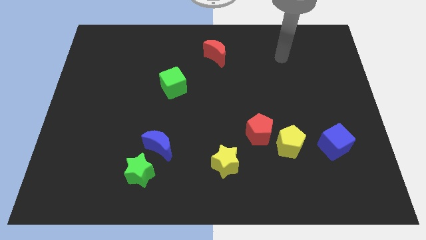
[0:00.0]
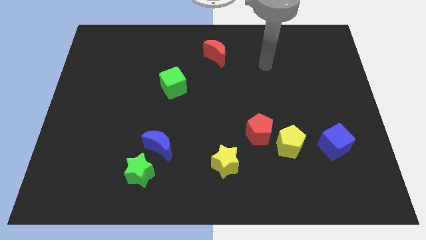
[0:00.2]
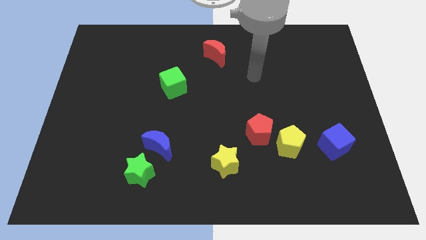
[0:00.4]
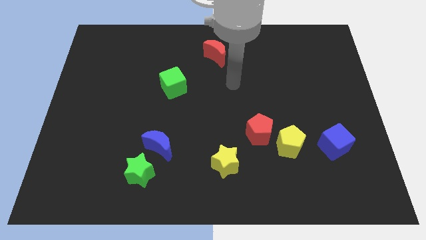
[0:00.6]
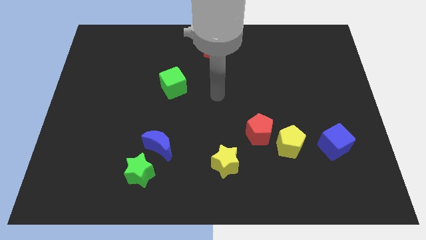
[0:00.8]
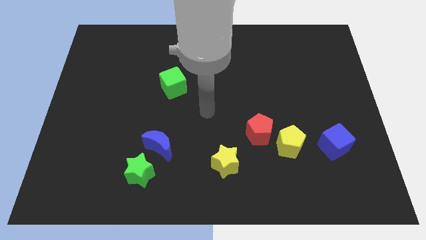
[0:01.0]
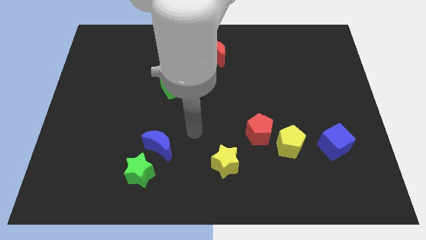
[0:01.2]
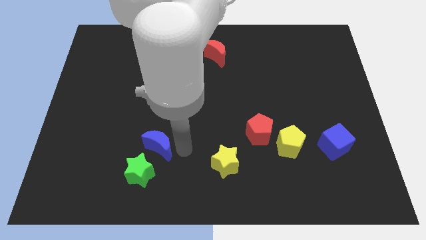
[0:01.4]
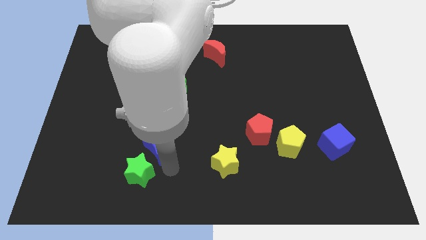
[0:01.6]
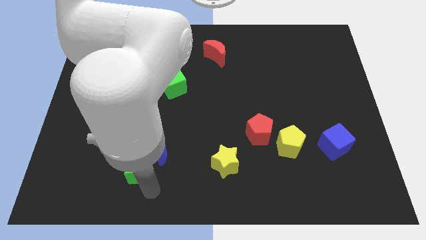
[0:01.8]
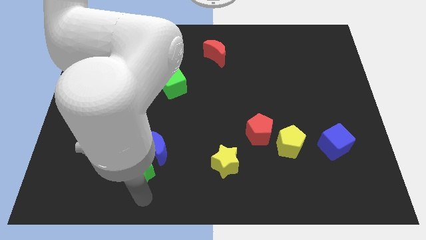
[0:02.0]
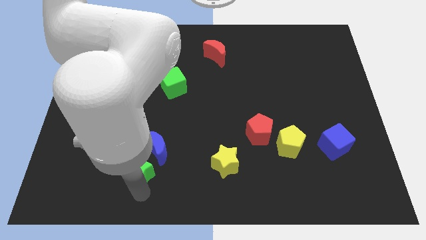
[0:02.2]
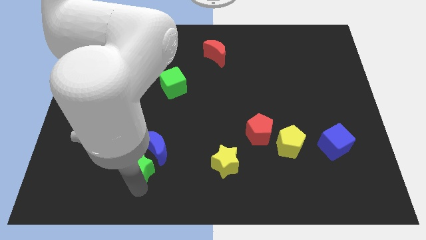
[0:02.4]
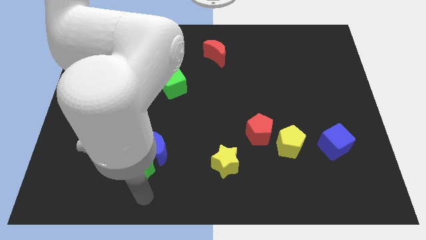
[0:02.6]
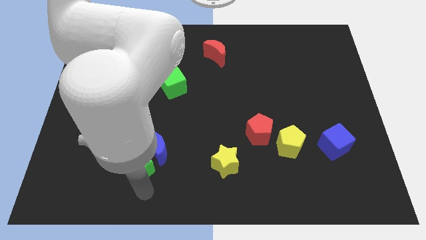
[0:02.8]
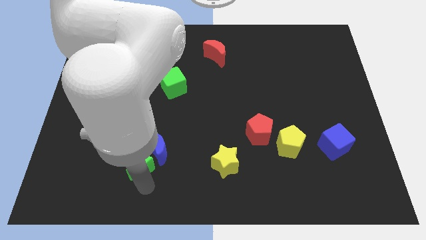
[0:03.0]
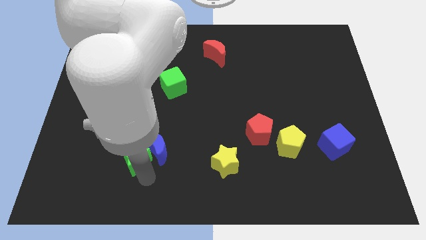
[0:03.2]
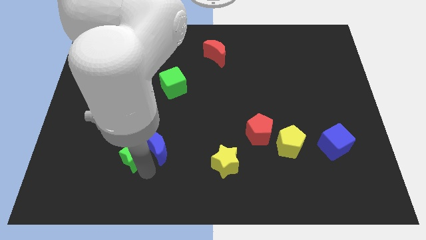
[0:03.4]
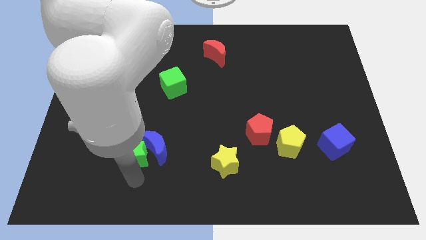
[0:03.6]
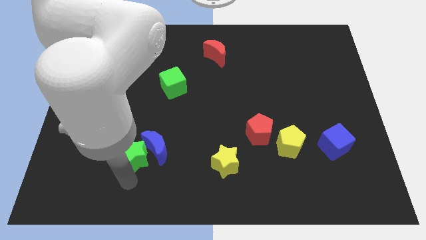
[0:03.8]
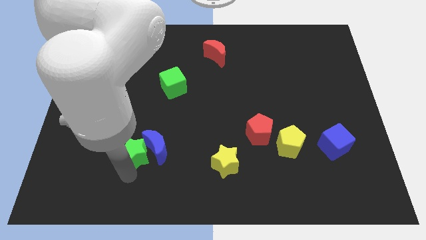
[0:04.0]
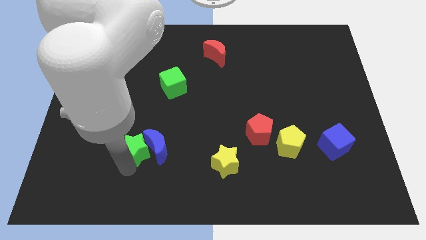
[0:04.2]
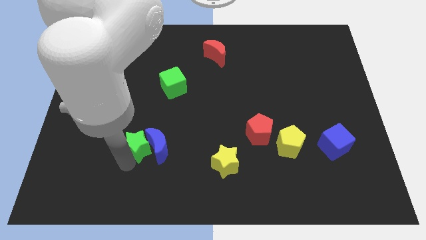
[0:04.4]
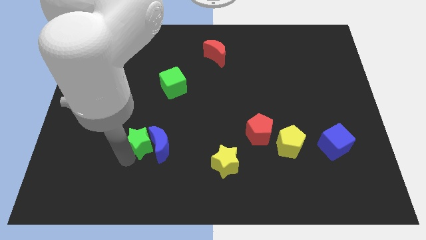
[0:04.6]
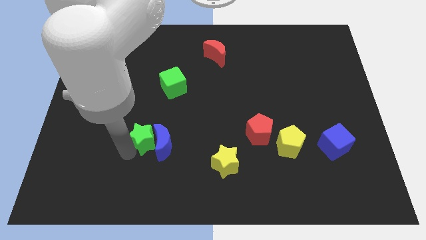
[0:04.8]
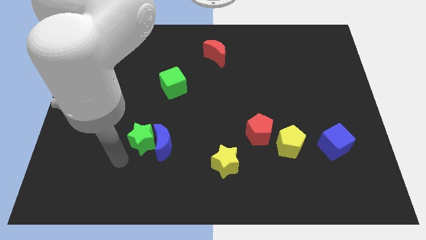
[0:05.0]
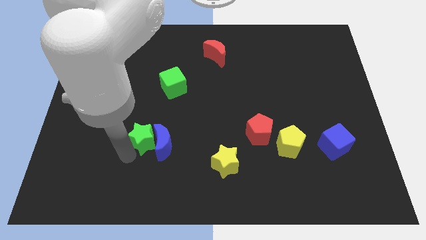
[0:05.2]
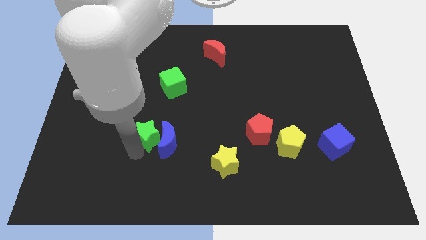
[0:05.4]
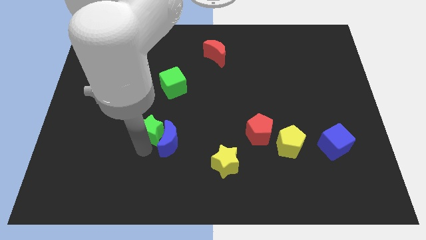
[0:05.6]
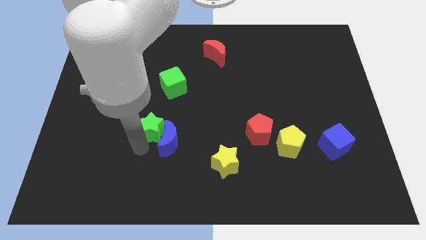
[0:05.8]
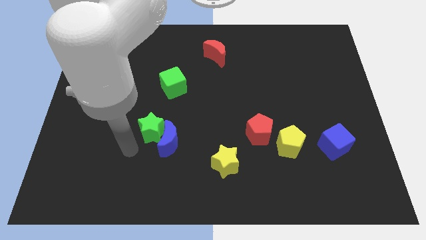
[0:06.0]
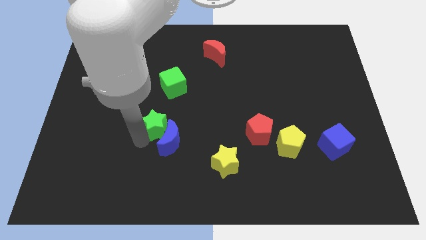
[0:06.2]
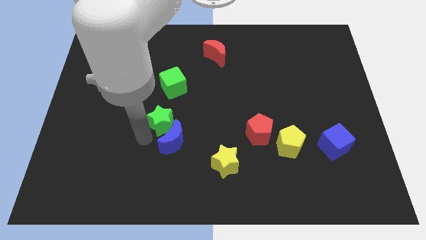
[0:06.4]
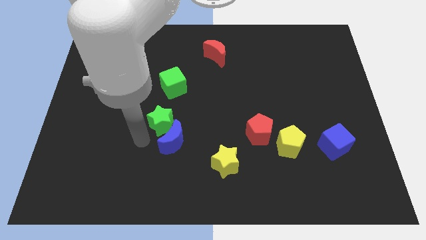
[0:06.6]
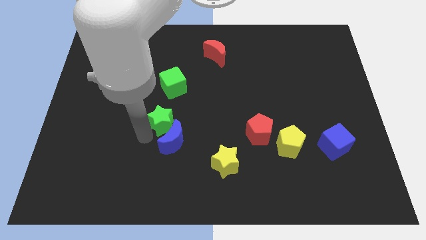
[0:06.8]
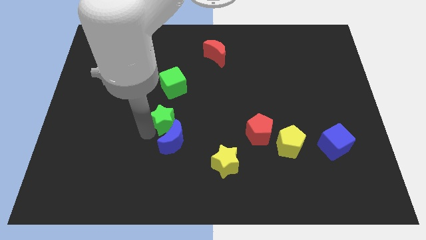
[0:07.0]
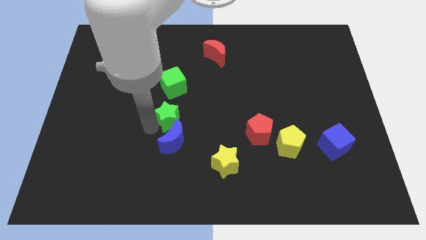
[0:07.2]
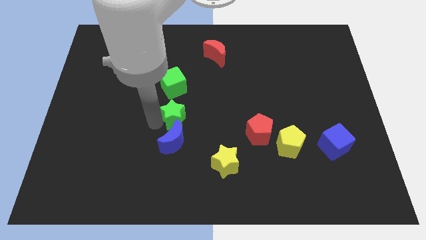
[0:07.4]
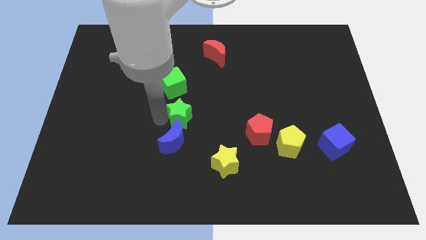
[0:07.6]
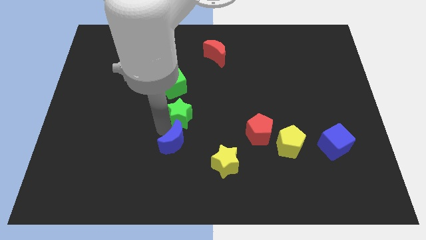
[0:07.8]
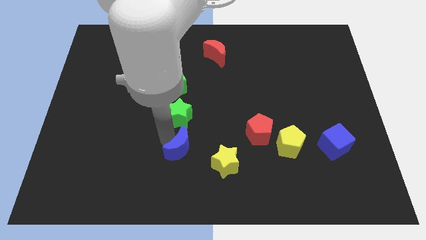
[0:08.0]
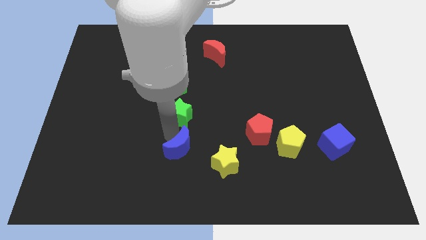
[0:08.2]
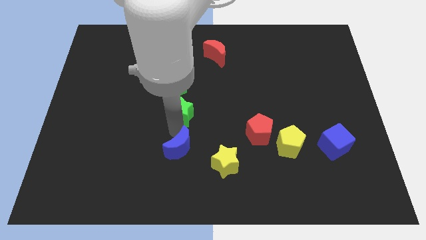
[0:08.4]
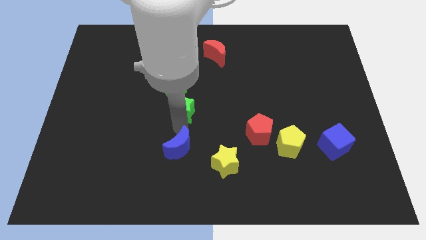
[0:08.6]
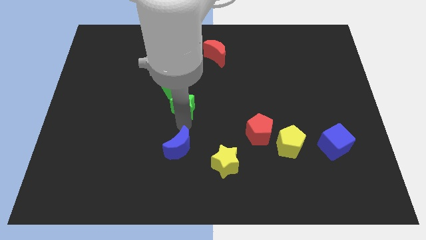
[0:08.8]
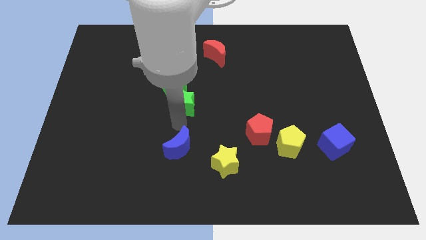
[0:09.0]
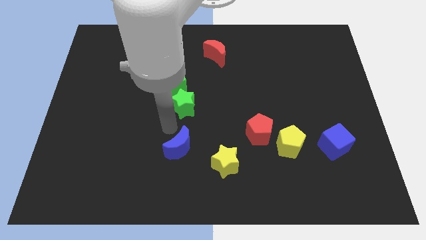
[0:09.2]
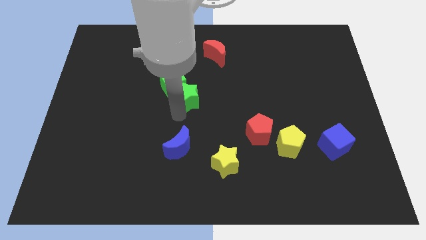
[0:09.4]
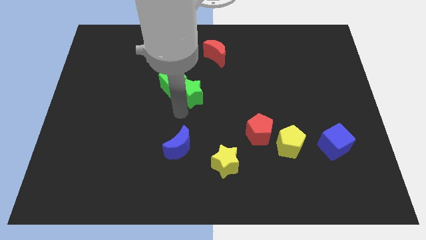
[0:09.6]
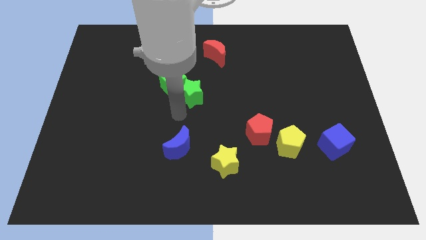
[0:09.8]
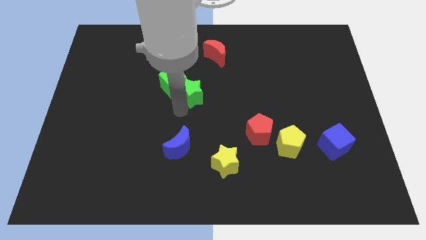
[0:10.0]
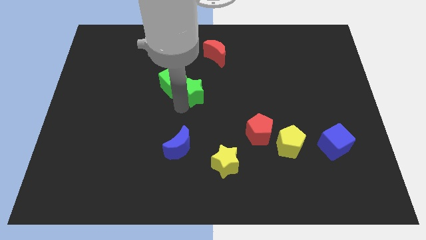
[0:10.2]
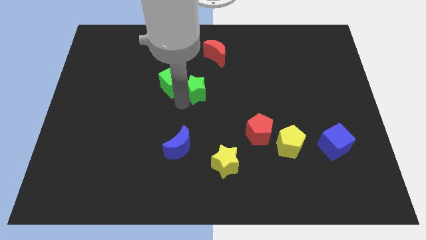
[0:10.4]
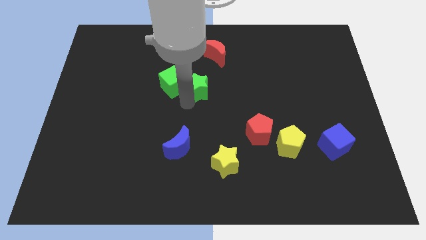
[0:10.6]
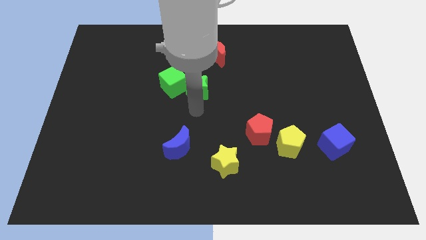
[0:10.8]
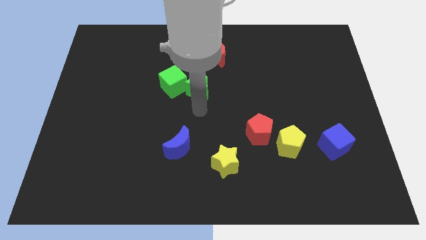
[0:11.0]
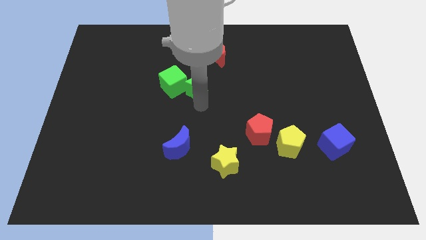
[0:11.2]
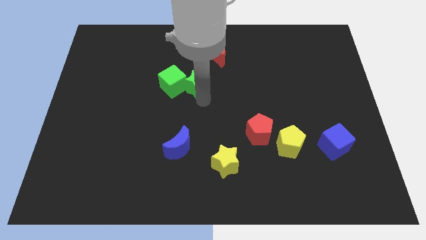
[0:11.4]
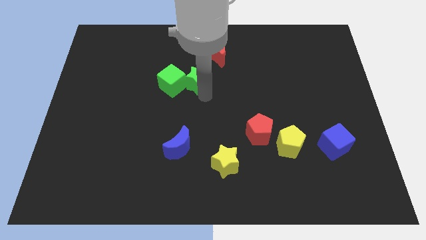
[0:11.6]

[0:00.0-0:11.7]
move the green star diagonally down and to the left of the red moon

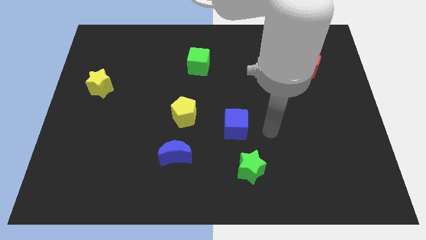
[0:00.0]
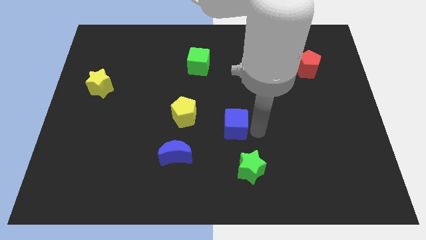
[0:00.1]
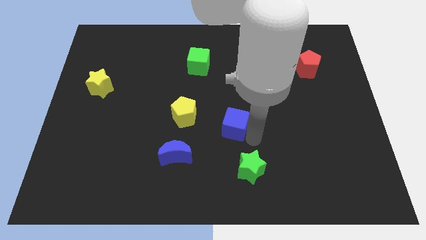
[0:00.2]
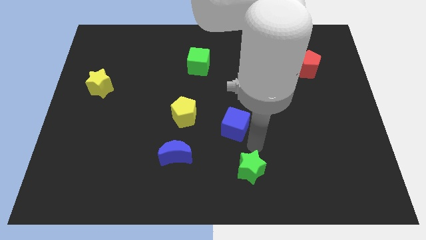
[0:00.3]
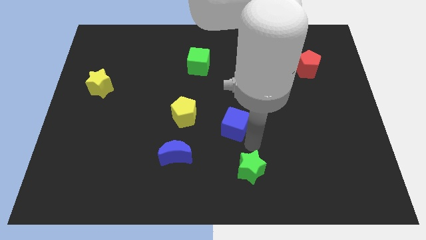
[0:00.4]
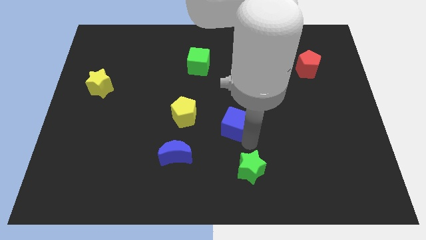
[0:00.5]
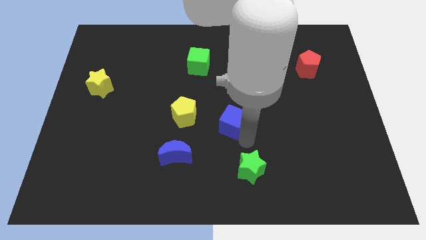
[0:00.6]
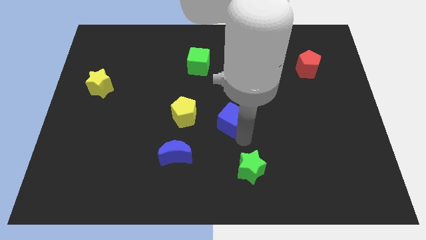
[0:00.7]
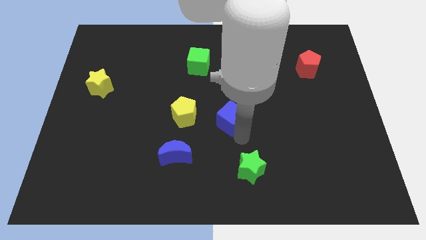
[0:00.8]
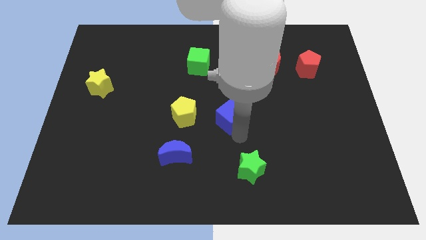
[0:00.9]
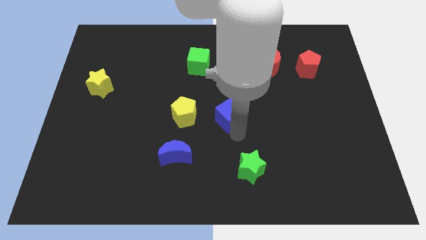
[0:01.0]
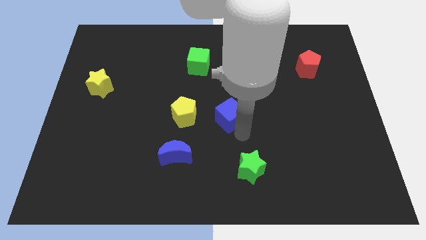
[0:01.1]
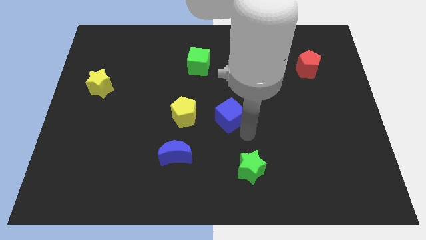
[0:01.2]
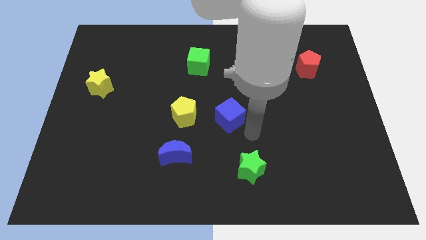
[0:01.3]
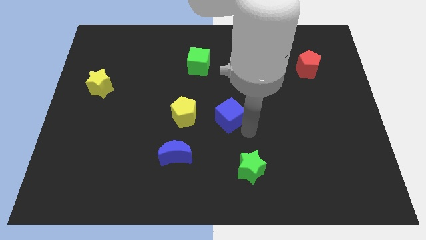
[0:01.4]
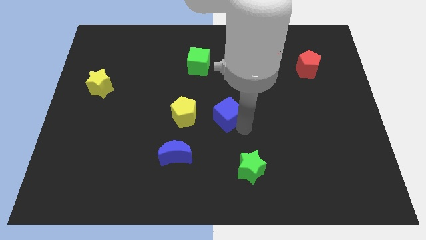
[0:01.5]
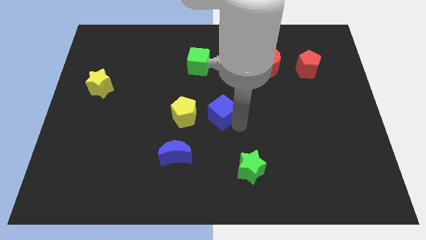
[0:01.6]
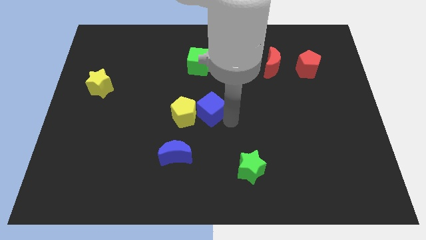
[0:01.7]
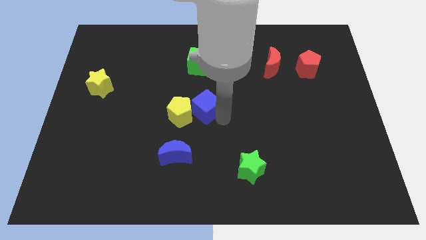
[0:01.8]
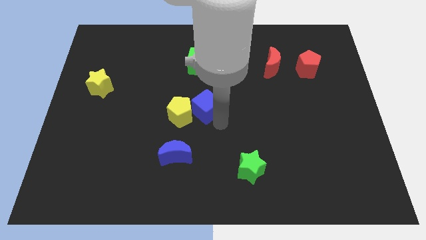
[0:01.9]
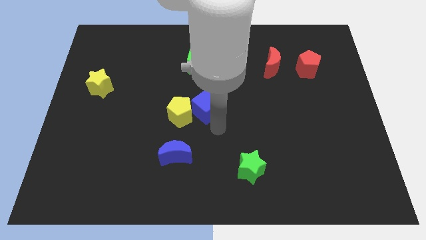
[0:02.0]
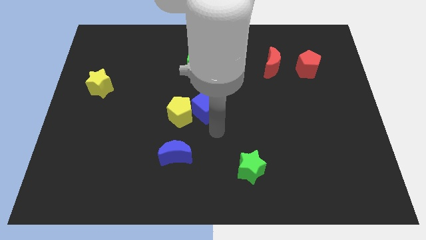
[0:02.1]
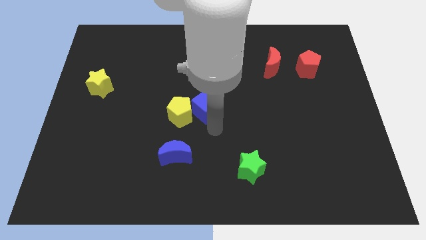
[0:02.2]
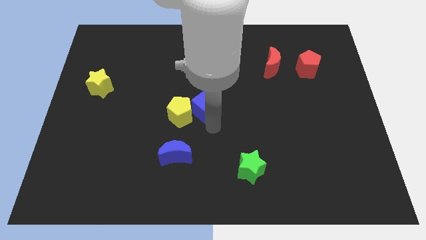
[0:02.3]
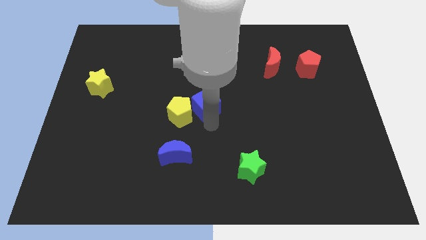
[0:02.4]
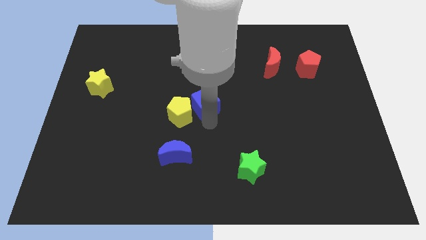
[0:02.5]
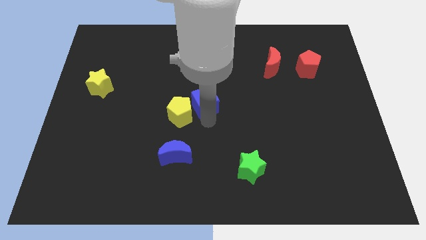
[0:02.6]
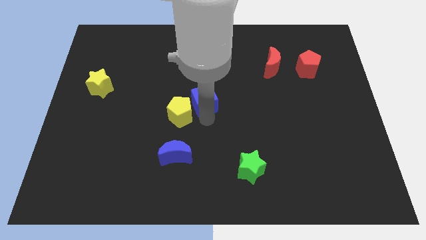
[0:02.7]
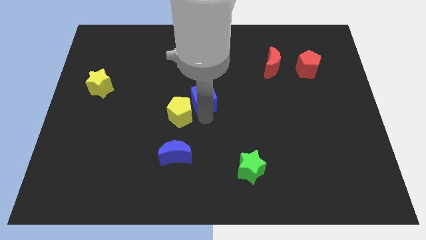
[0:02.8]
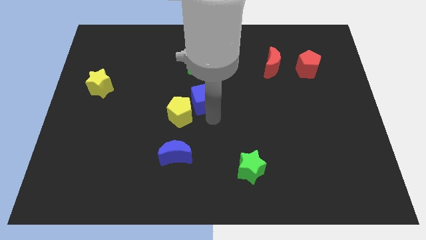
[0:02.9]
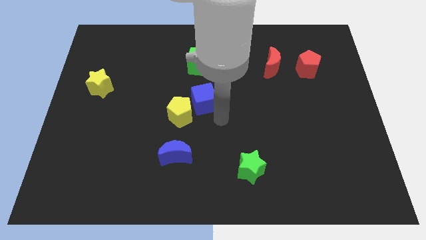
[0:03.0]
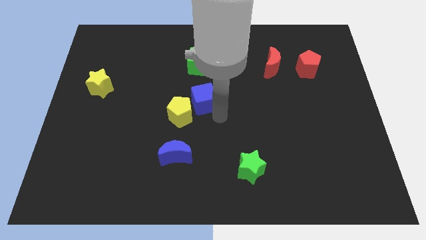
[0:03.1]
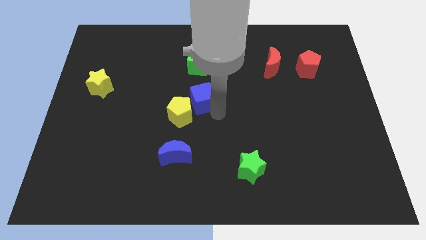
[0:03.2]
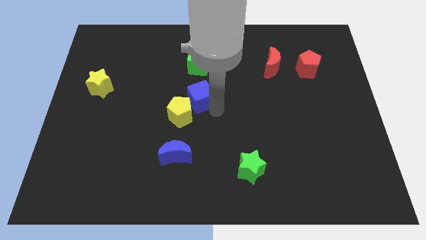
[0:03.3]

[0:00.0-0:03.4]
push the blue cube to the top side of the yellow pentagon
